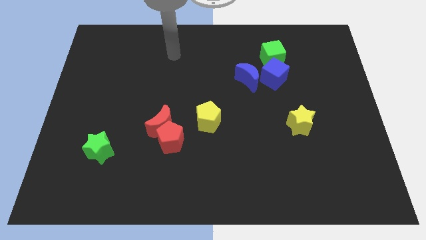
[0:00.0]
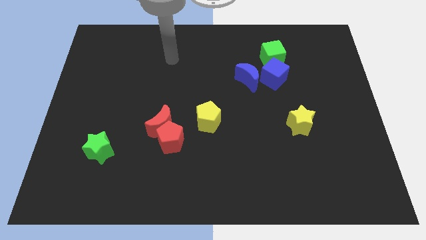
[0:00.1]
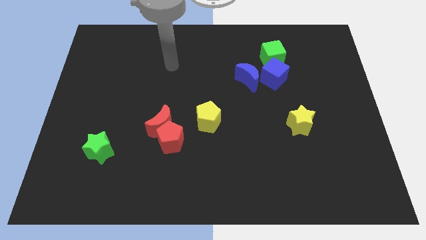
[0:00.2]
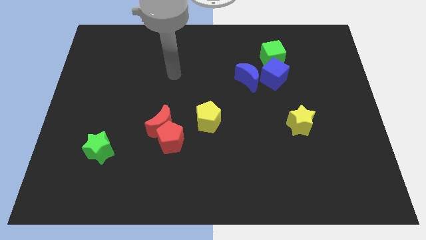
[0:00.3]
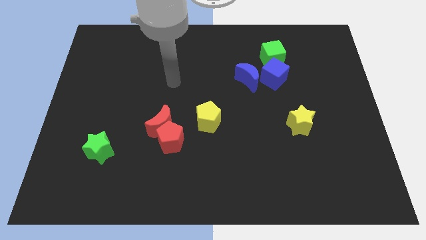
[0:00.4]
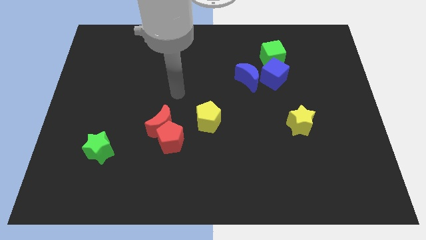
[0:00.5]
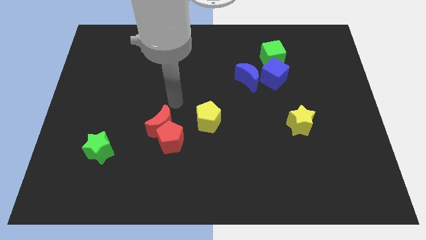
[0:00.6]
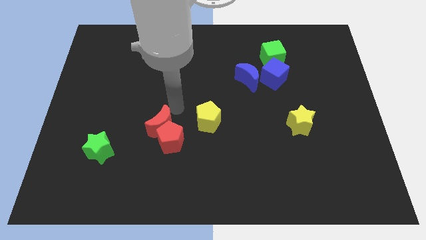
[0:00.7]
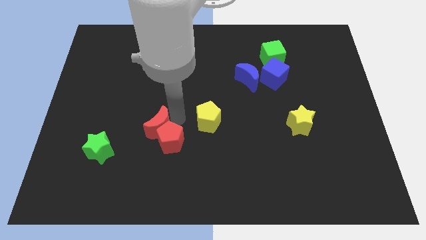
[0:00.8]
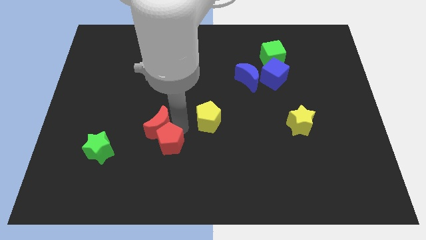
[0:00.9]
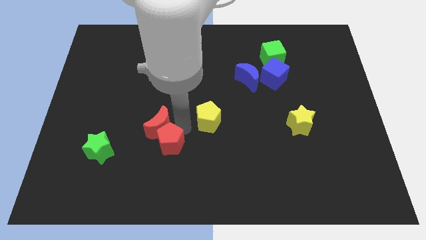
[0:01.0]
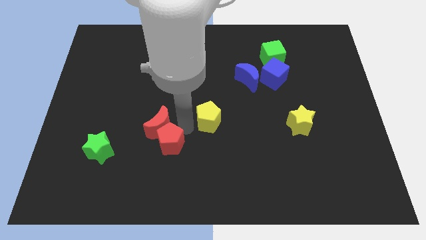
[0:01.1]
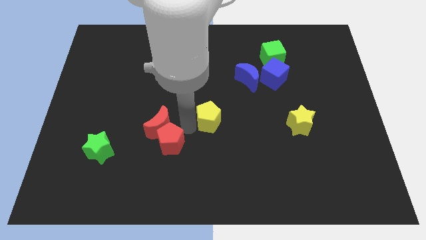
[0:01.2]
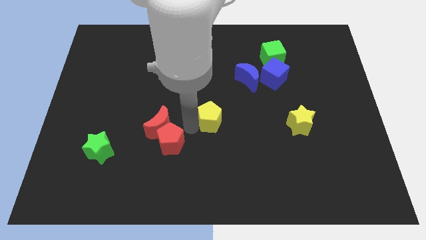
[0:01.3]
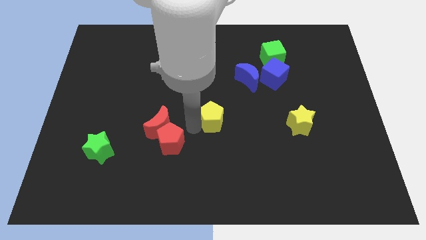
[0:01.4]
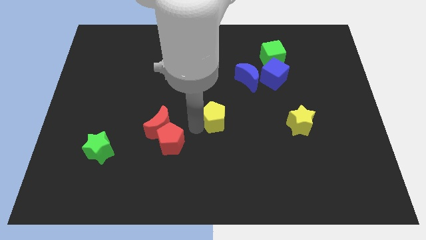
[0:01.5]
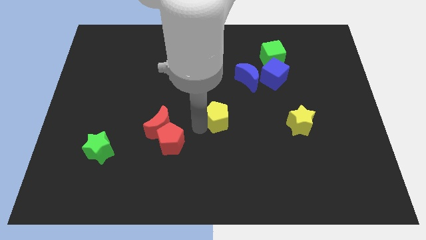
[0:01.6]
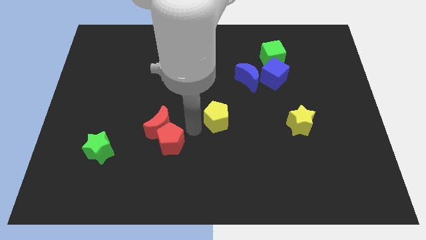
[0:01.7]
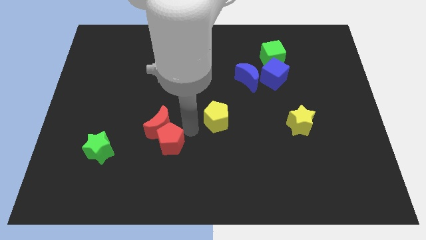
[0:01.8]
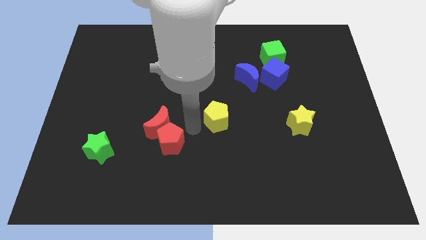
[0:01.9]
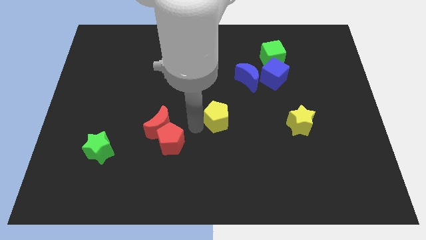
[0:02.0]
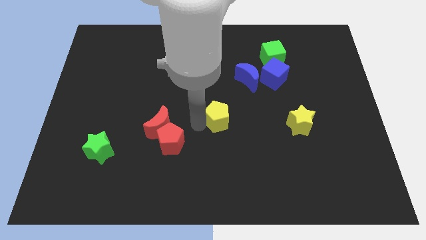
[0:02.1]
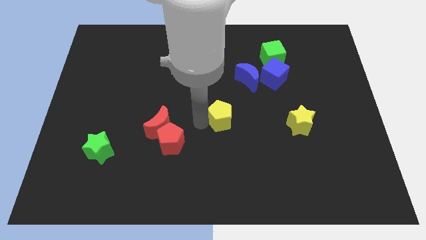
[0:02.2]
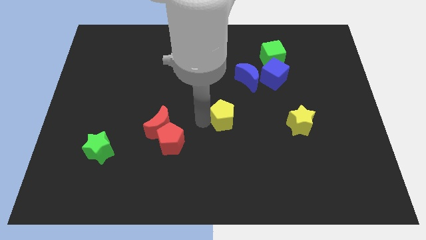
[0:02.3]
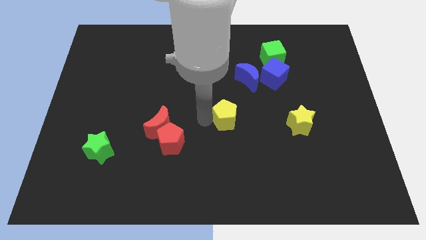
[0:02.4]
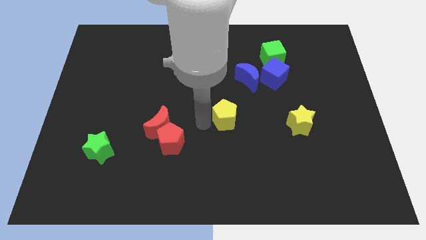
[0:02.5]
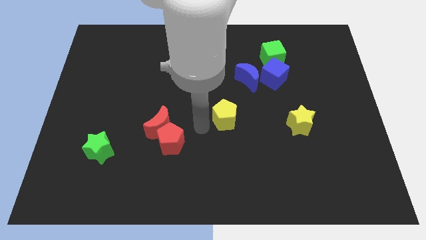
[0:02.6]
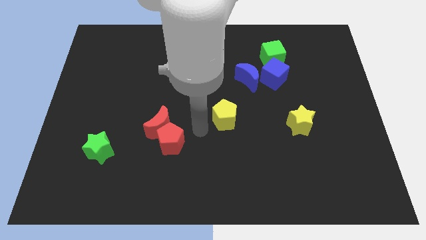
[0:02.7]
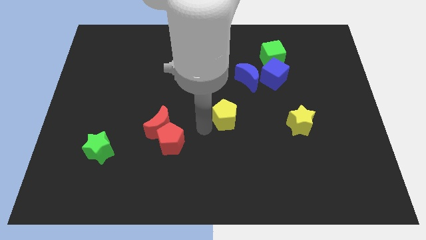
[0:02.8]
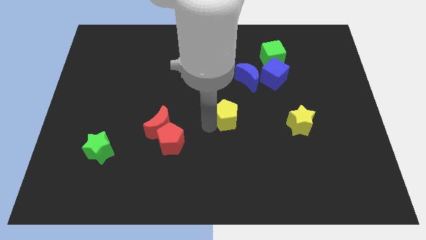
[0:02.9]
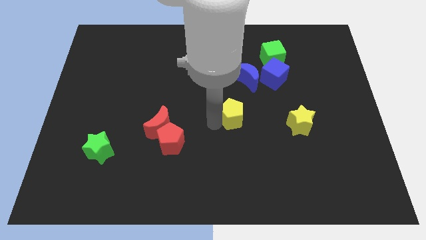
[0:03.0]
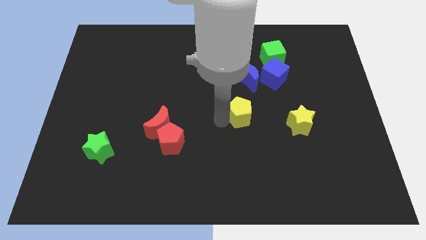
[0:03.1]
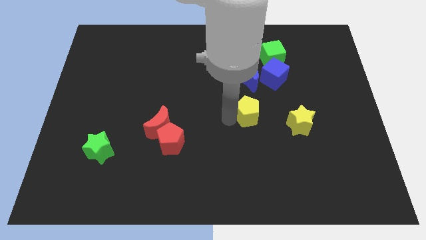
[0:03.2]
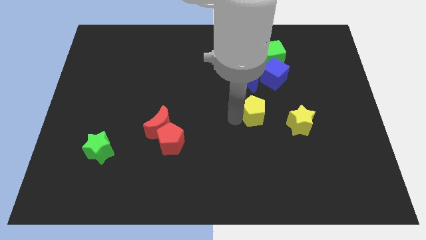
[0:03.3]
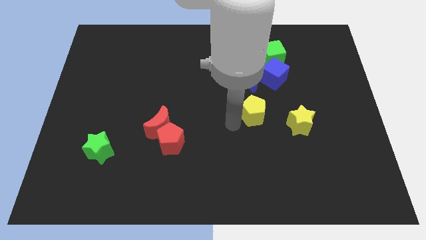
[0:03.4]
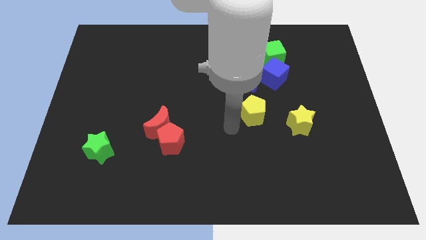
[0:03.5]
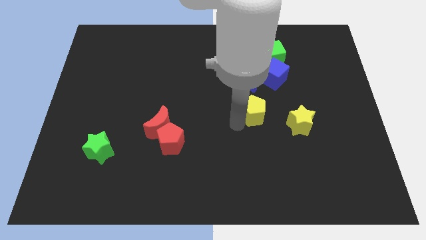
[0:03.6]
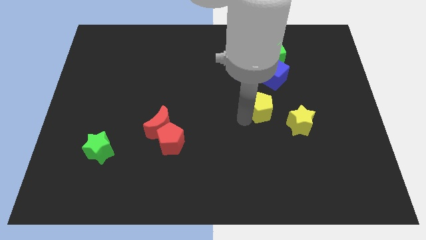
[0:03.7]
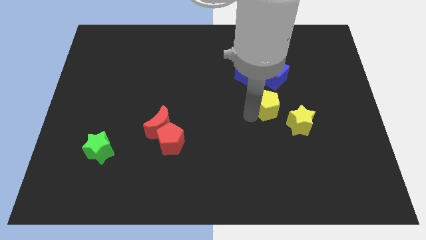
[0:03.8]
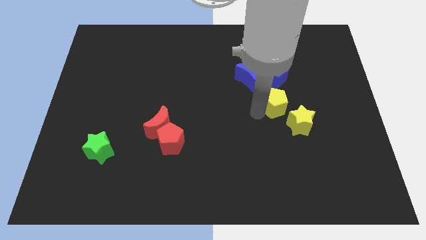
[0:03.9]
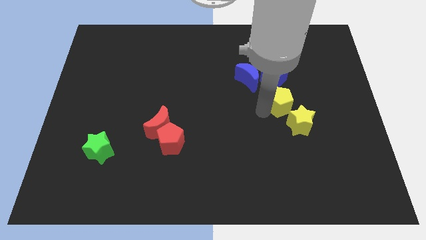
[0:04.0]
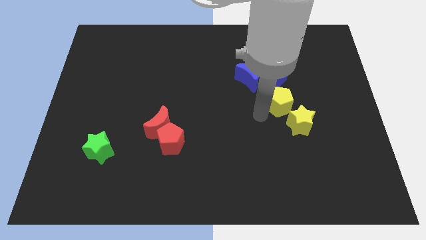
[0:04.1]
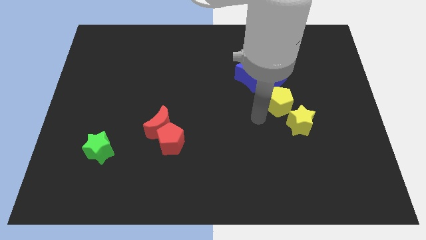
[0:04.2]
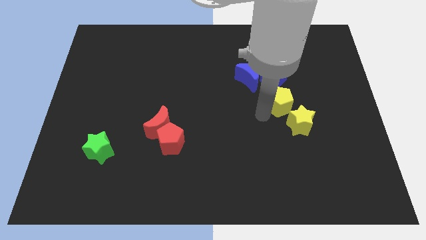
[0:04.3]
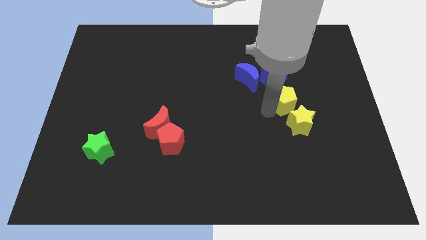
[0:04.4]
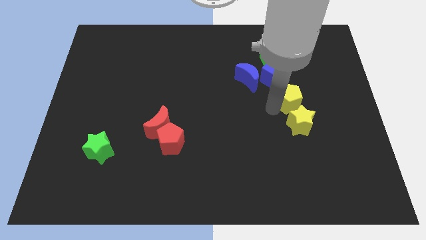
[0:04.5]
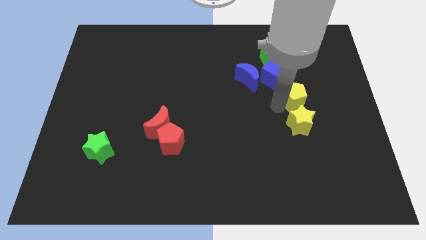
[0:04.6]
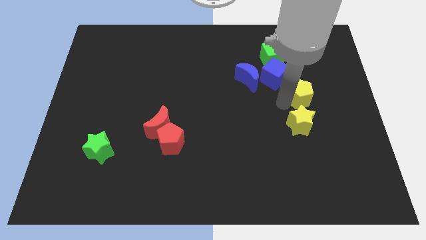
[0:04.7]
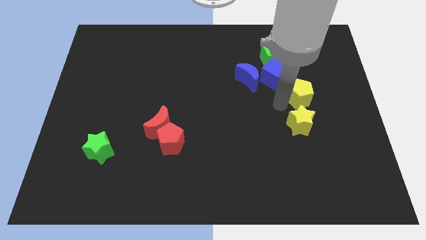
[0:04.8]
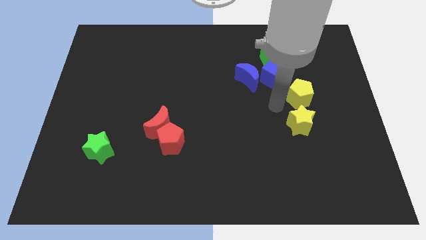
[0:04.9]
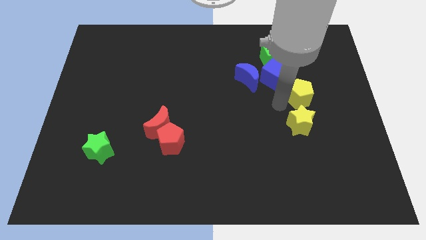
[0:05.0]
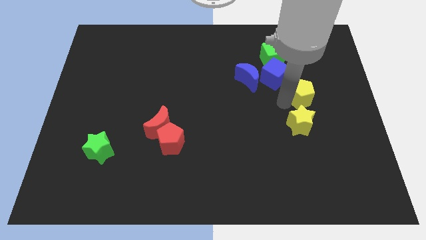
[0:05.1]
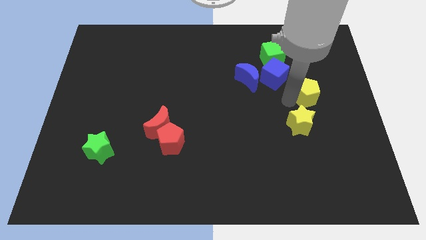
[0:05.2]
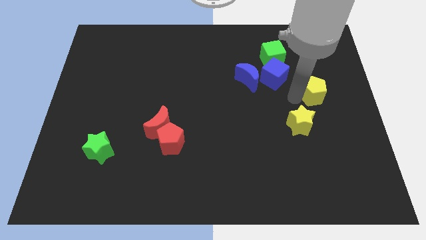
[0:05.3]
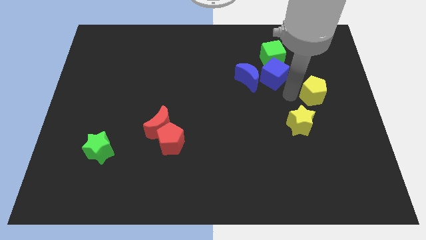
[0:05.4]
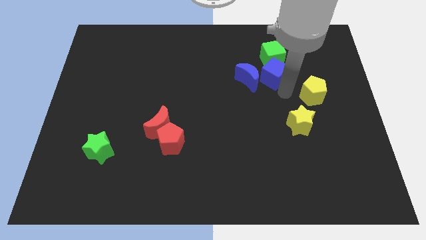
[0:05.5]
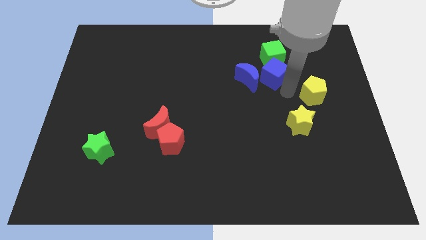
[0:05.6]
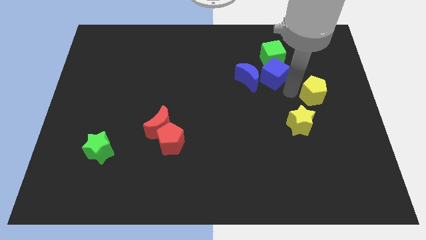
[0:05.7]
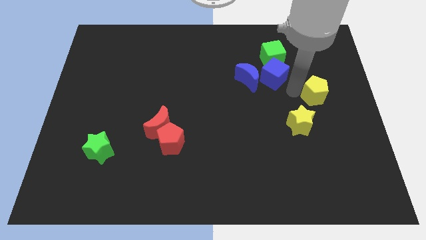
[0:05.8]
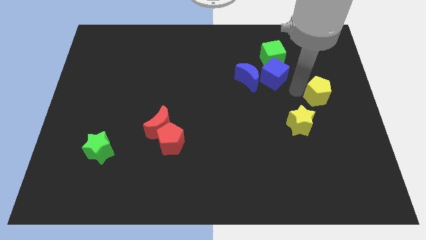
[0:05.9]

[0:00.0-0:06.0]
push the yellow pentagon to the right side of the board

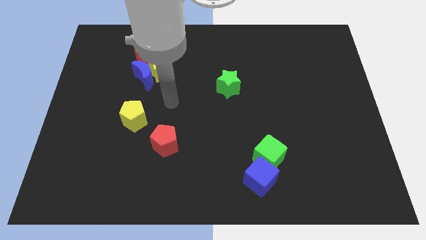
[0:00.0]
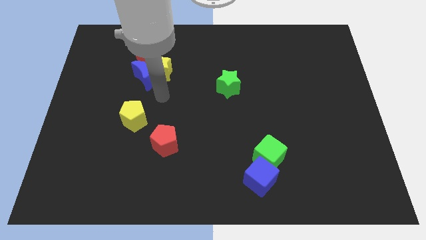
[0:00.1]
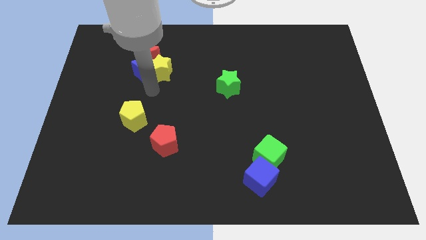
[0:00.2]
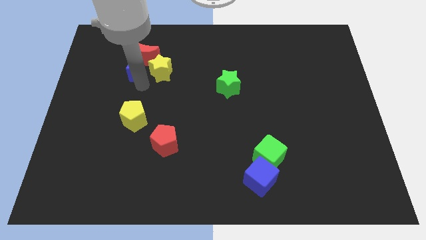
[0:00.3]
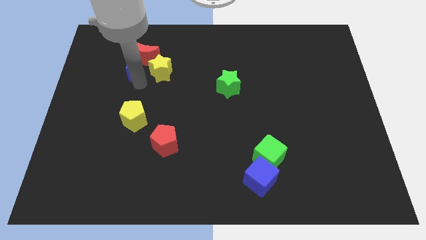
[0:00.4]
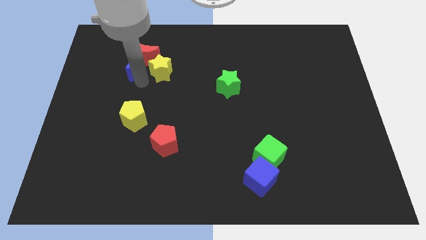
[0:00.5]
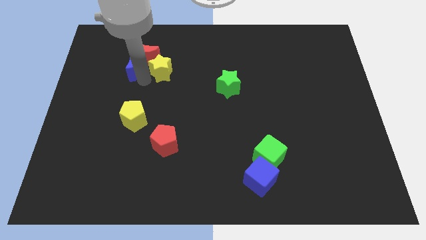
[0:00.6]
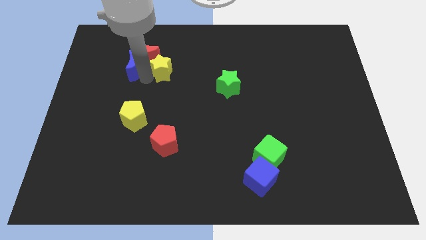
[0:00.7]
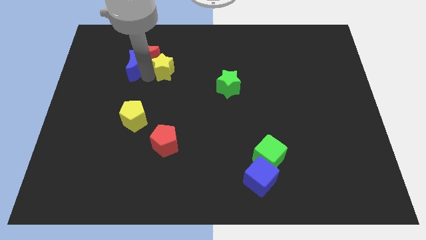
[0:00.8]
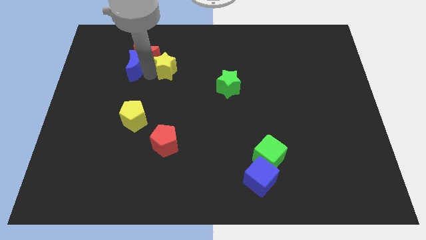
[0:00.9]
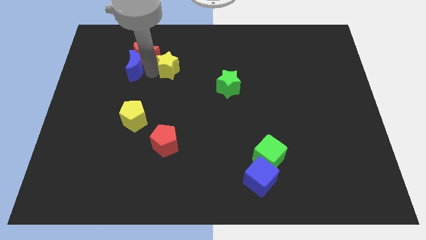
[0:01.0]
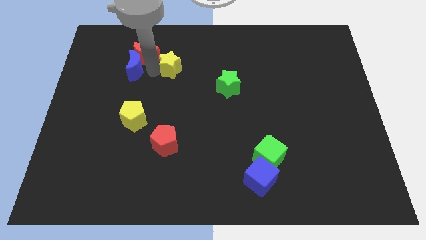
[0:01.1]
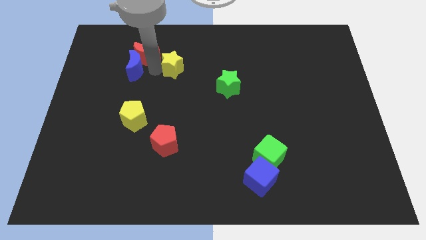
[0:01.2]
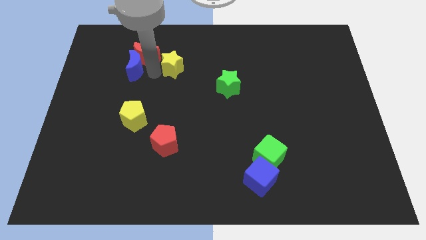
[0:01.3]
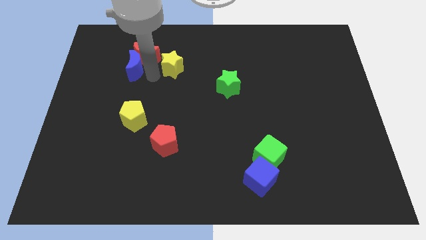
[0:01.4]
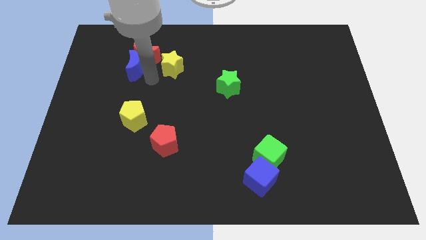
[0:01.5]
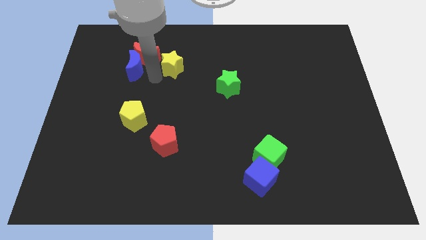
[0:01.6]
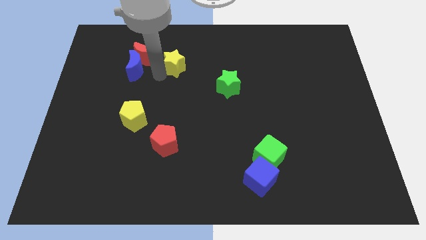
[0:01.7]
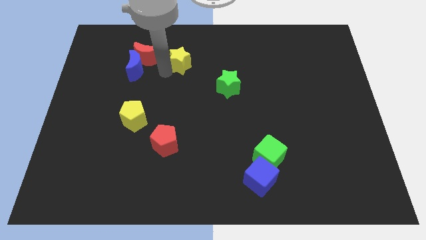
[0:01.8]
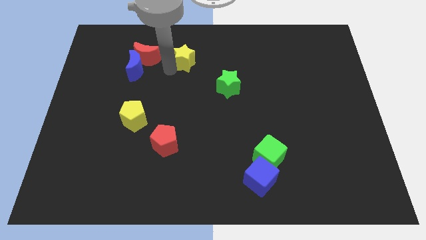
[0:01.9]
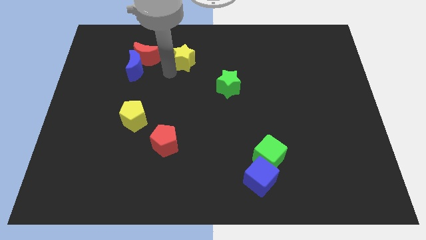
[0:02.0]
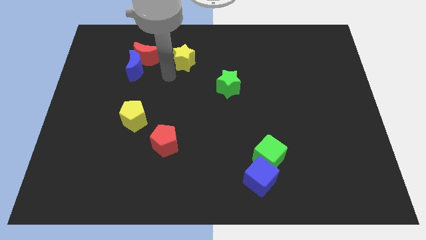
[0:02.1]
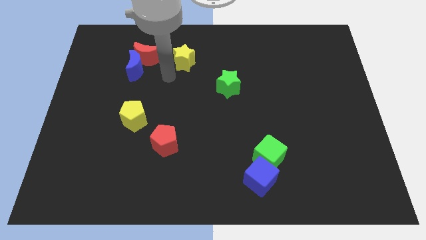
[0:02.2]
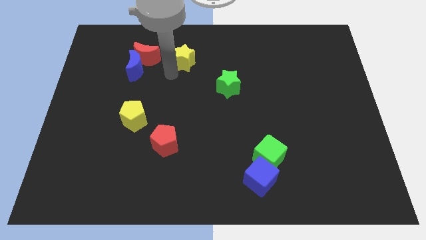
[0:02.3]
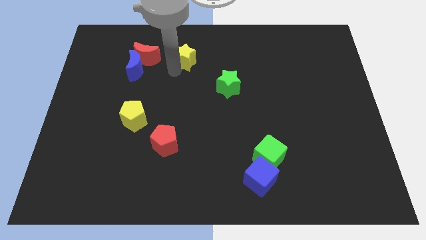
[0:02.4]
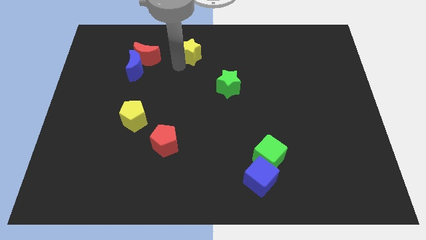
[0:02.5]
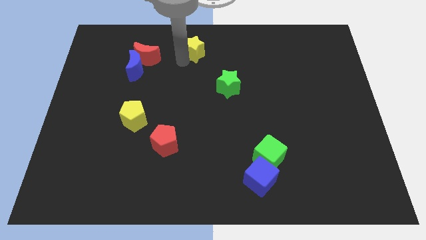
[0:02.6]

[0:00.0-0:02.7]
slide the yellow star to the top side
